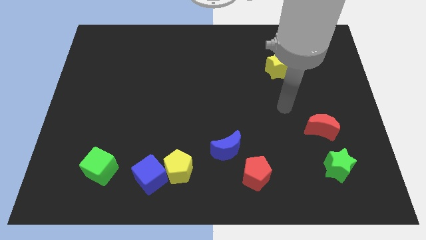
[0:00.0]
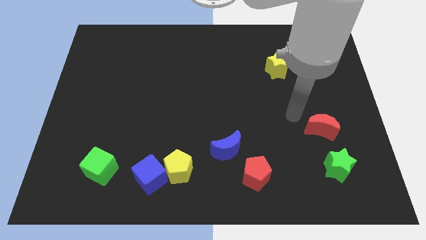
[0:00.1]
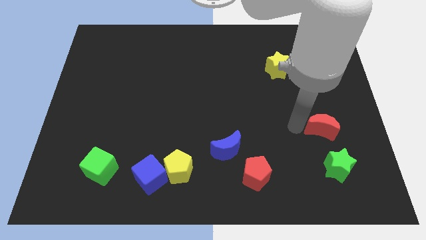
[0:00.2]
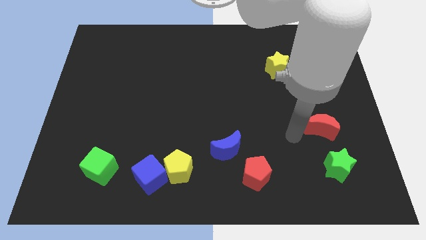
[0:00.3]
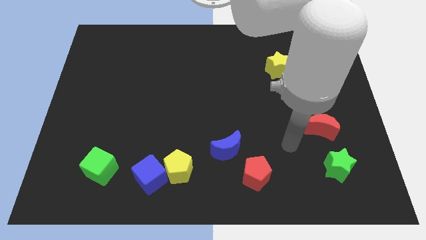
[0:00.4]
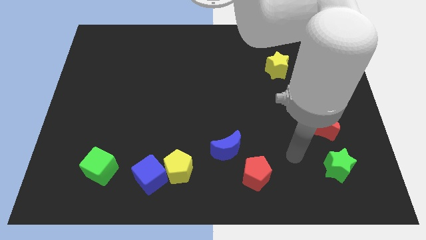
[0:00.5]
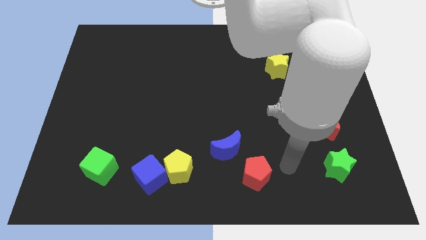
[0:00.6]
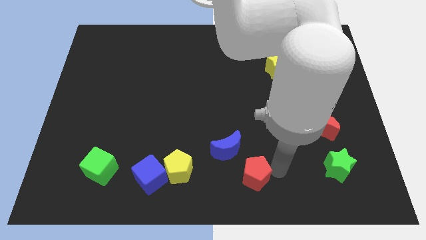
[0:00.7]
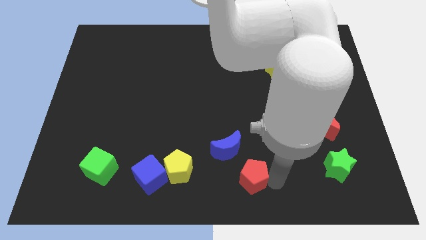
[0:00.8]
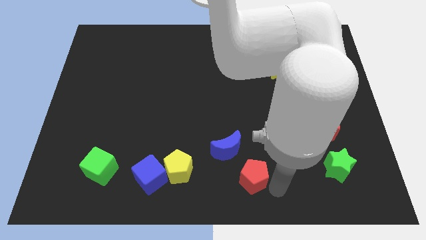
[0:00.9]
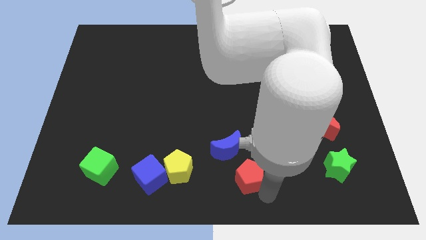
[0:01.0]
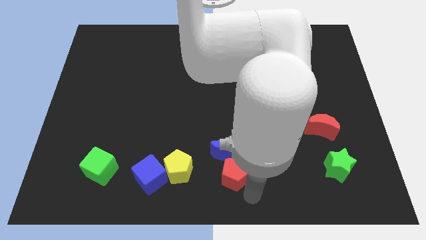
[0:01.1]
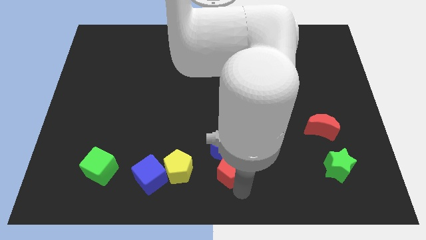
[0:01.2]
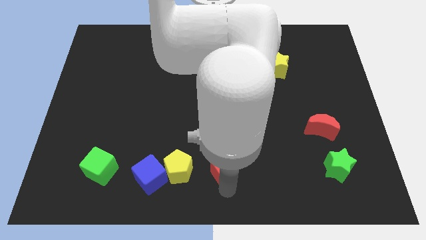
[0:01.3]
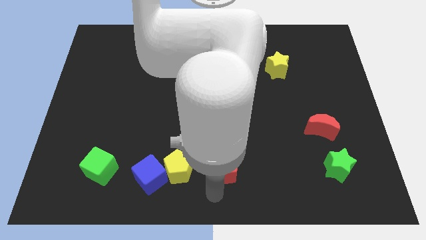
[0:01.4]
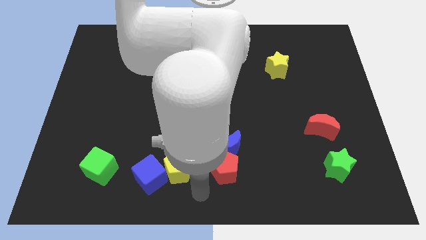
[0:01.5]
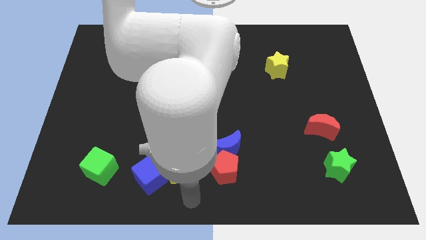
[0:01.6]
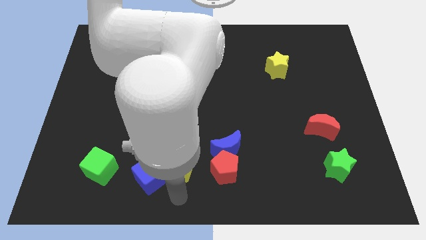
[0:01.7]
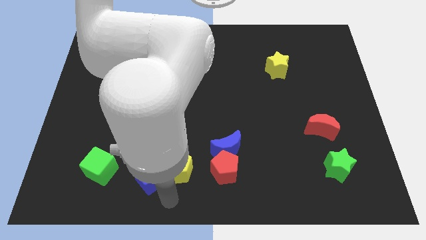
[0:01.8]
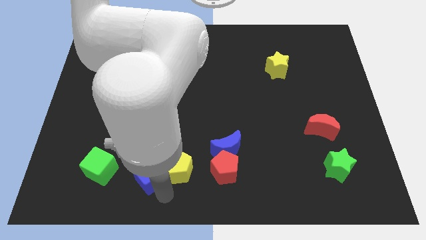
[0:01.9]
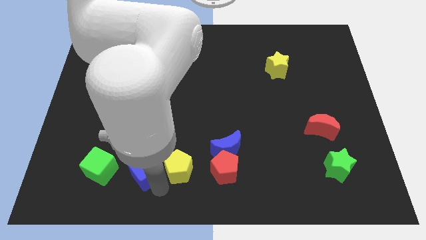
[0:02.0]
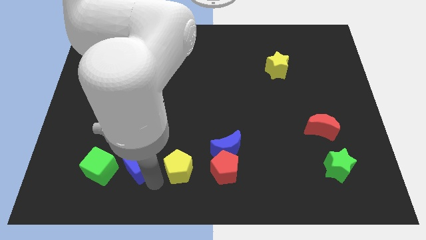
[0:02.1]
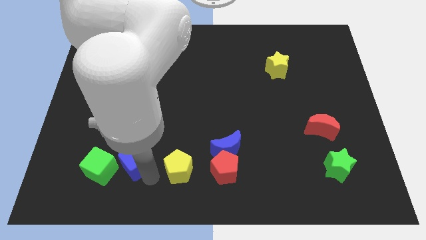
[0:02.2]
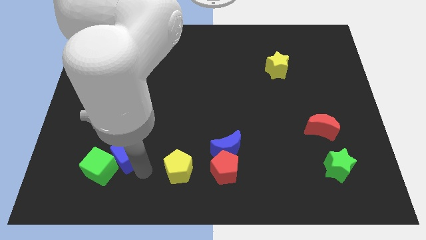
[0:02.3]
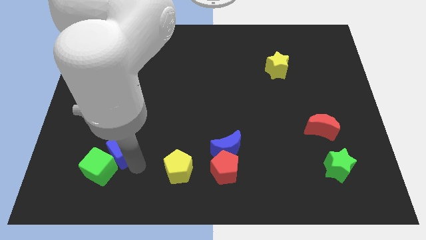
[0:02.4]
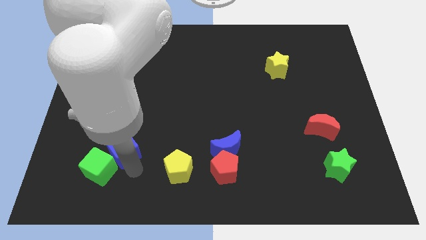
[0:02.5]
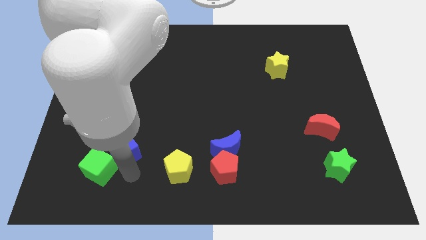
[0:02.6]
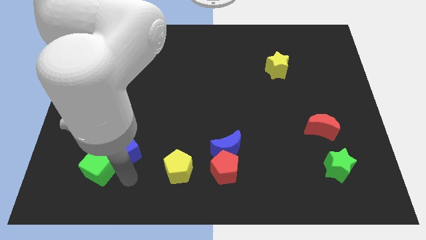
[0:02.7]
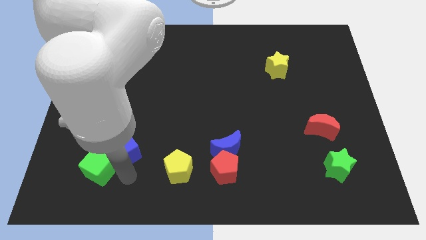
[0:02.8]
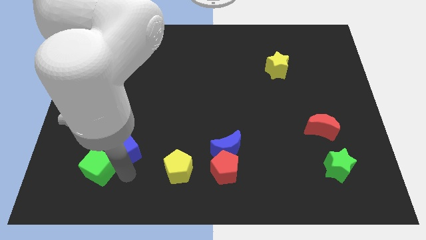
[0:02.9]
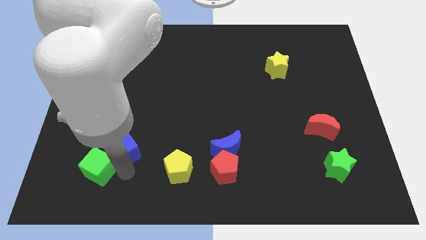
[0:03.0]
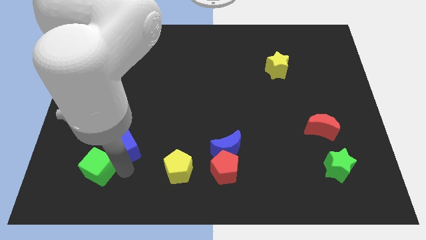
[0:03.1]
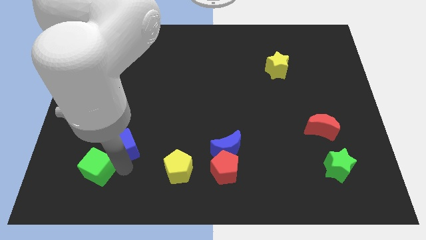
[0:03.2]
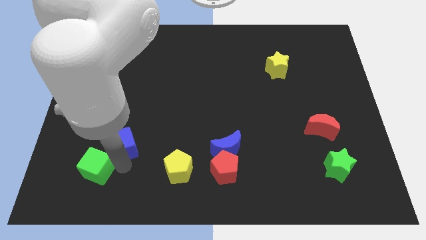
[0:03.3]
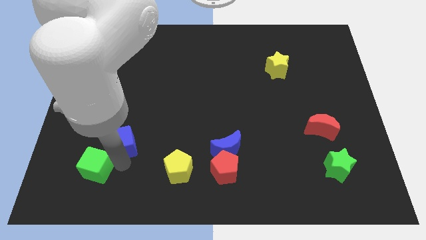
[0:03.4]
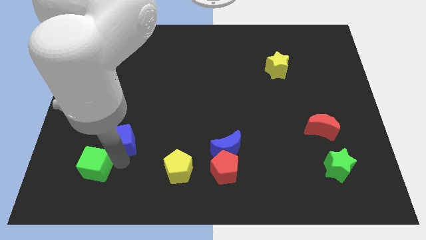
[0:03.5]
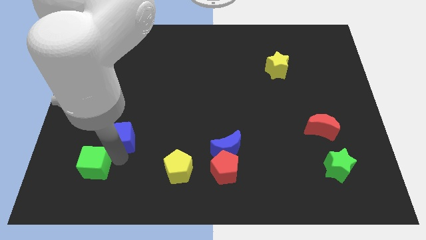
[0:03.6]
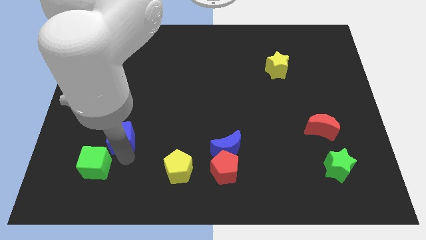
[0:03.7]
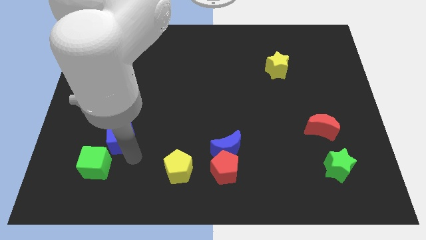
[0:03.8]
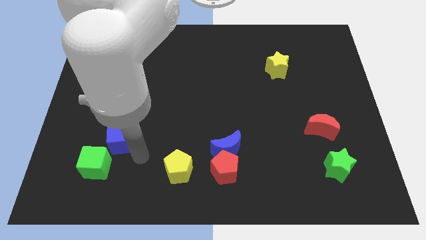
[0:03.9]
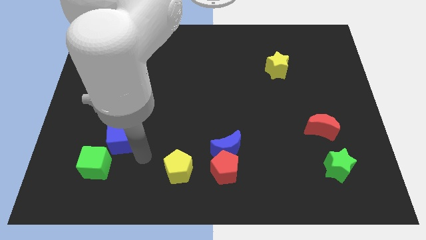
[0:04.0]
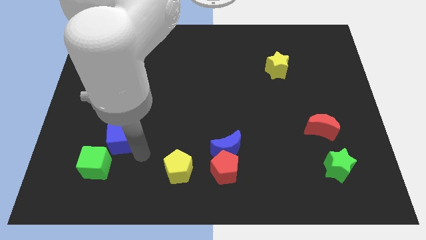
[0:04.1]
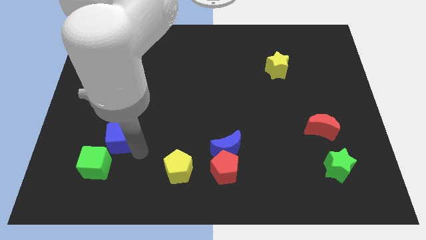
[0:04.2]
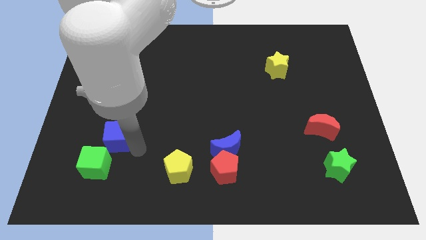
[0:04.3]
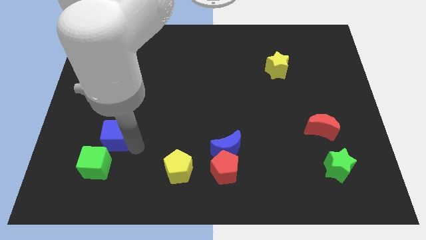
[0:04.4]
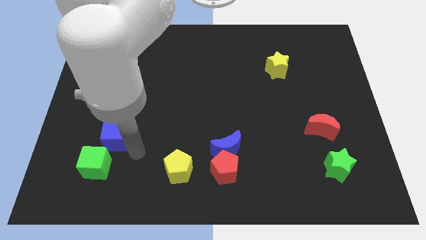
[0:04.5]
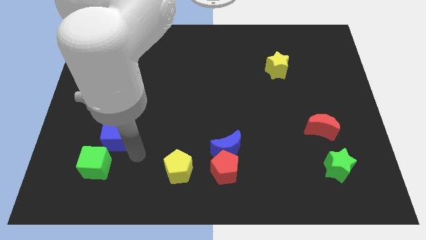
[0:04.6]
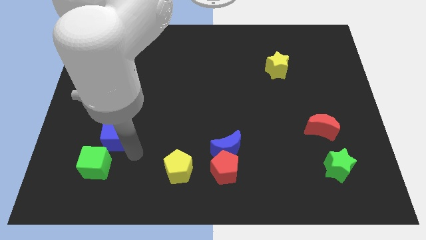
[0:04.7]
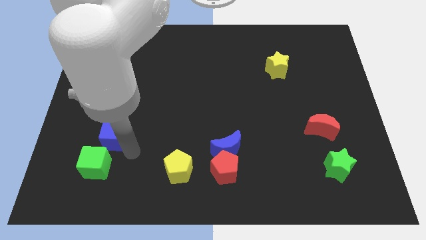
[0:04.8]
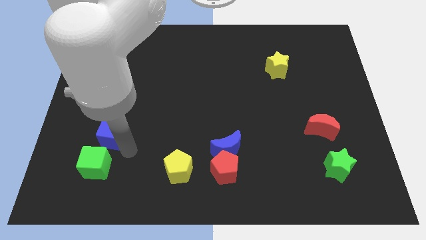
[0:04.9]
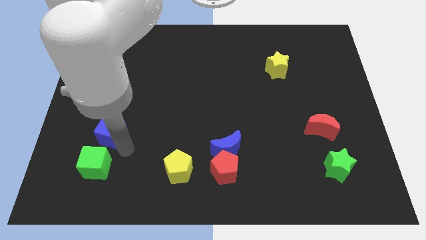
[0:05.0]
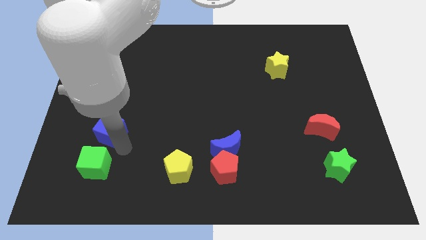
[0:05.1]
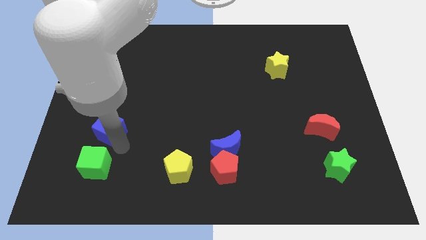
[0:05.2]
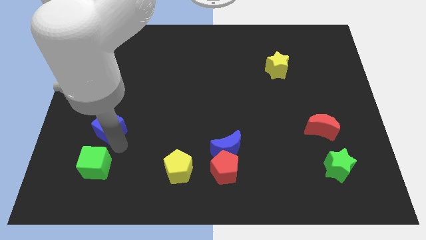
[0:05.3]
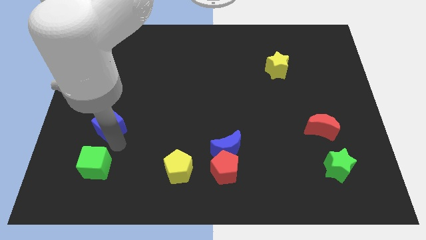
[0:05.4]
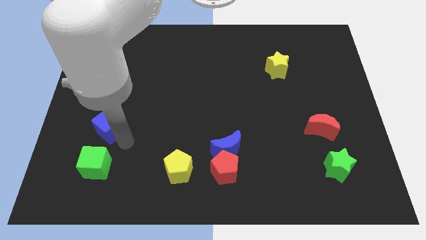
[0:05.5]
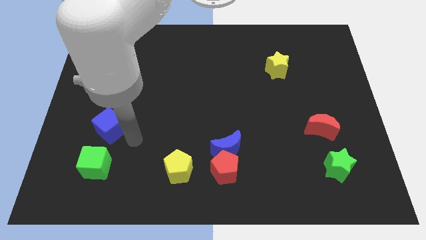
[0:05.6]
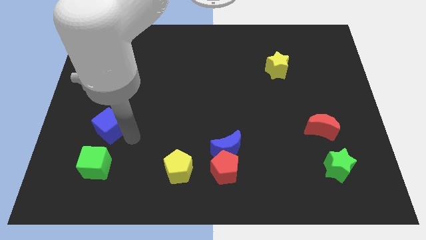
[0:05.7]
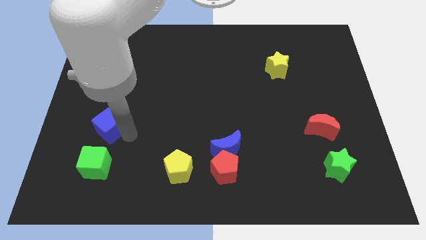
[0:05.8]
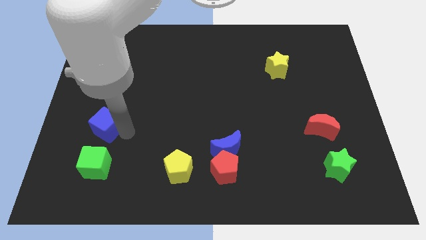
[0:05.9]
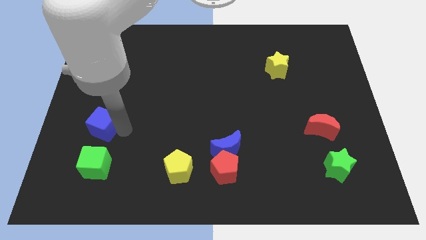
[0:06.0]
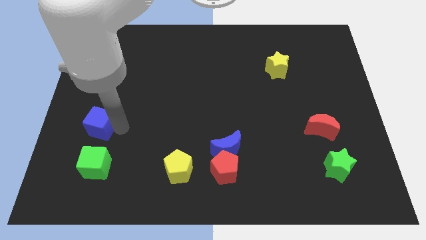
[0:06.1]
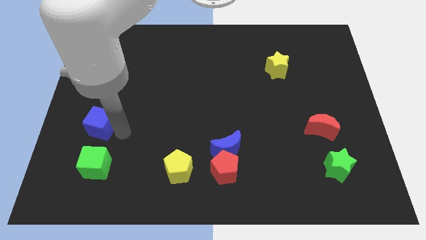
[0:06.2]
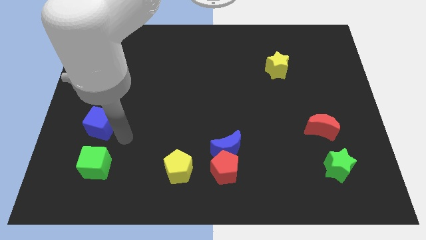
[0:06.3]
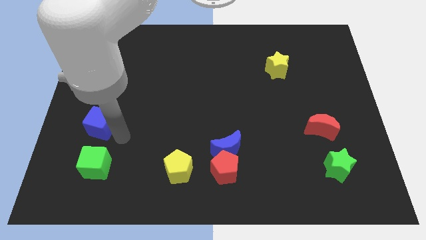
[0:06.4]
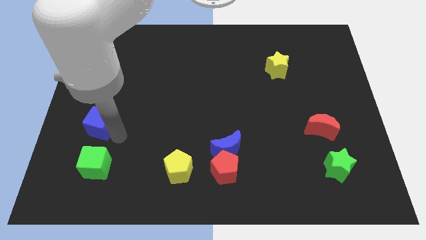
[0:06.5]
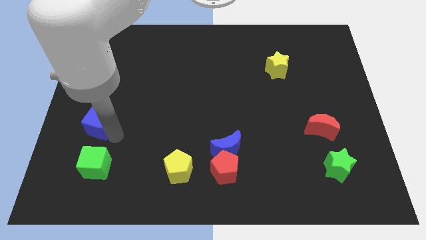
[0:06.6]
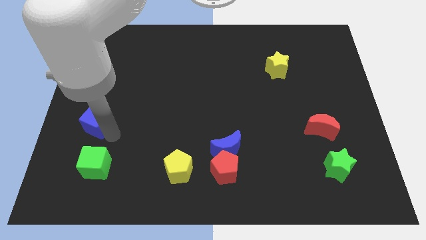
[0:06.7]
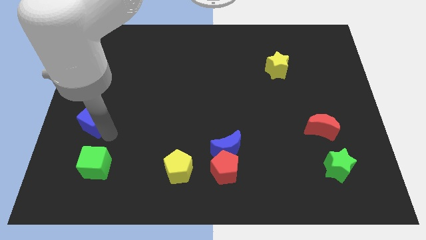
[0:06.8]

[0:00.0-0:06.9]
slide the blue cube to the center left
